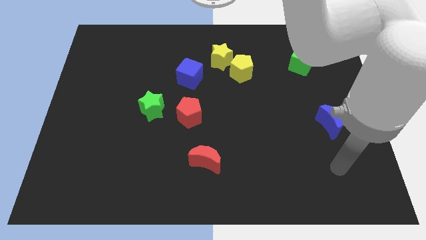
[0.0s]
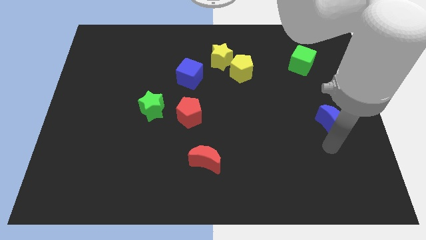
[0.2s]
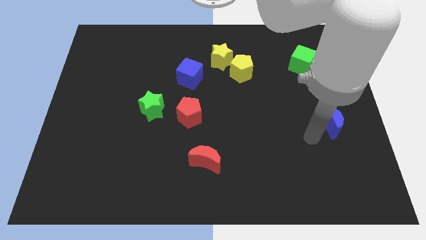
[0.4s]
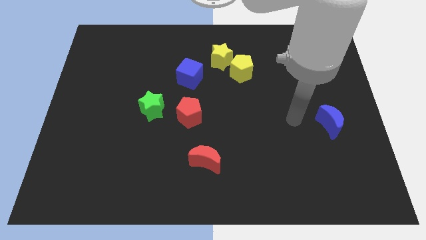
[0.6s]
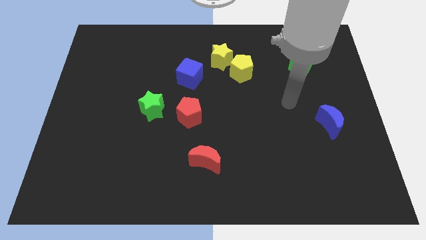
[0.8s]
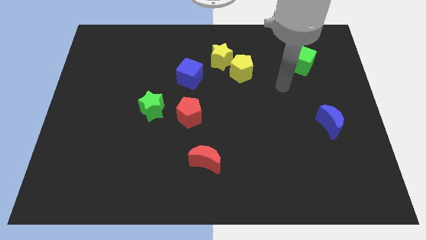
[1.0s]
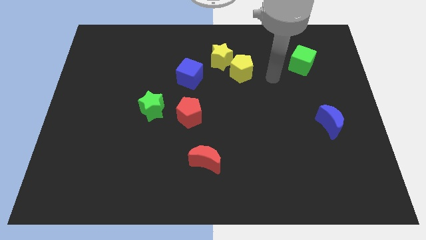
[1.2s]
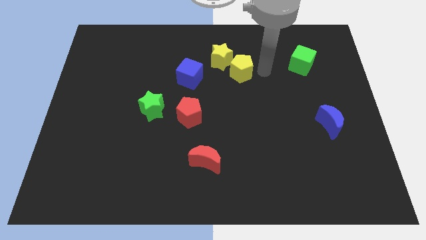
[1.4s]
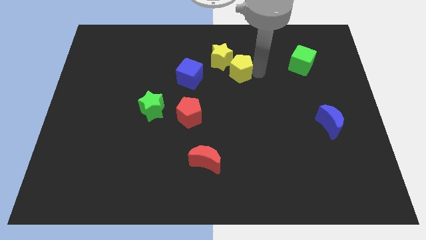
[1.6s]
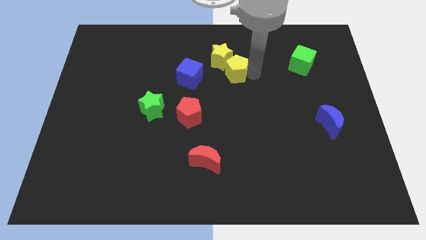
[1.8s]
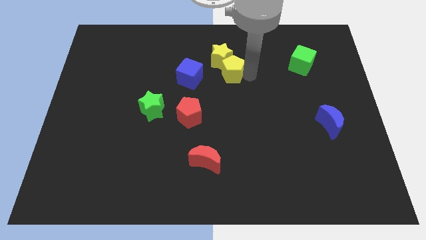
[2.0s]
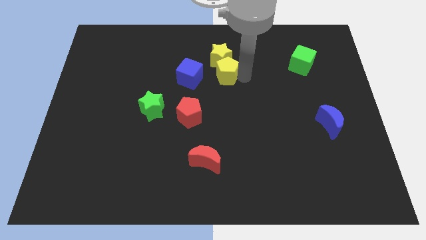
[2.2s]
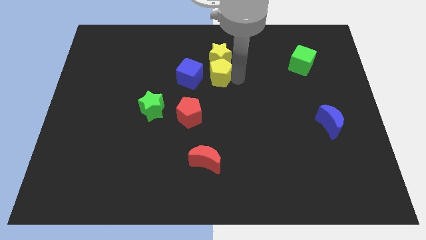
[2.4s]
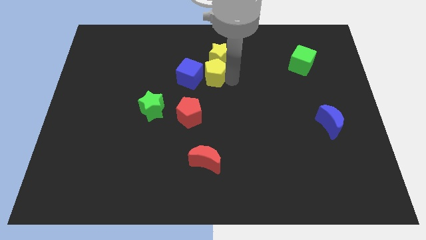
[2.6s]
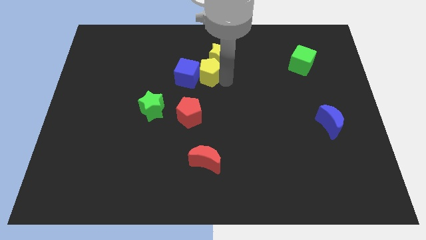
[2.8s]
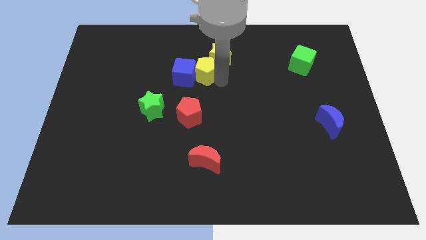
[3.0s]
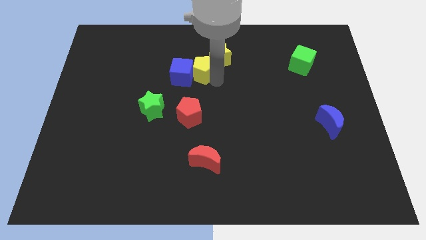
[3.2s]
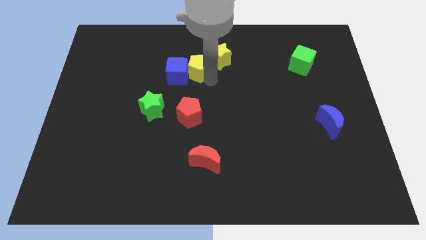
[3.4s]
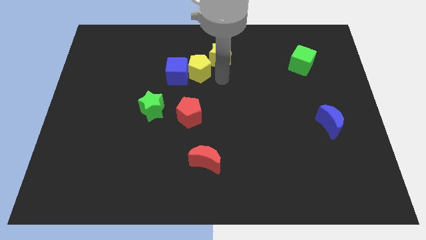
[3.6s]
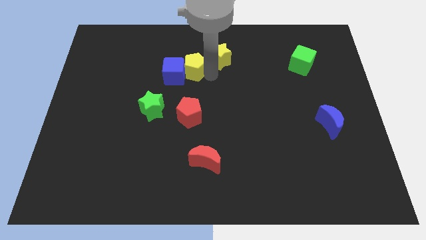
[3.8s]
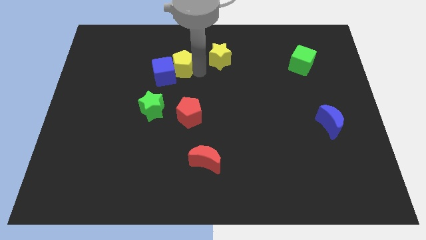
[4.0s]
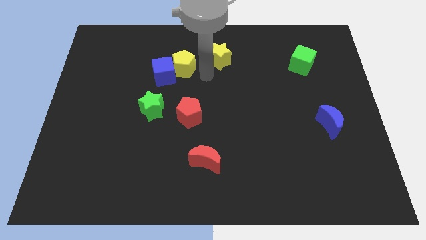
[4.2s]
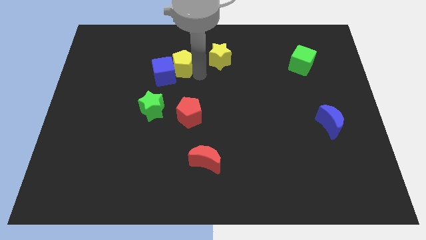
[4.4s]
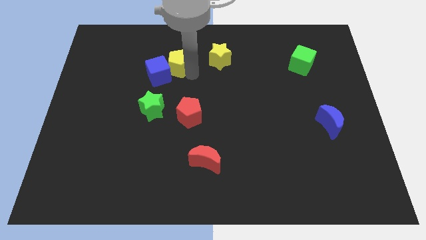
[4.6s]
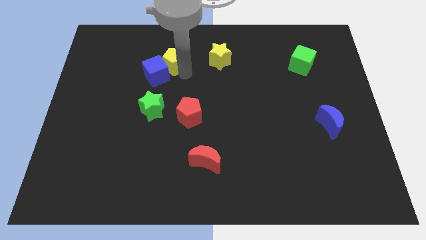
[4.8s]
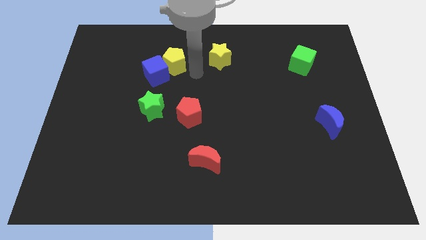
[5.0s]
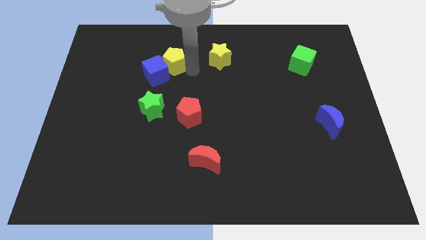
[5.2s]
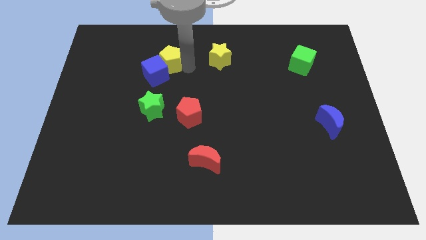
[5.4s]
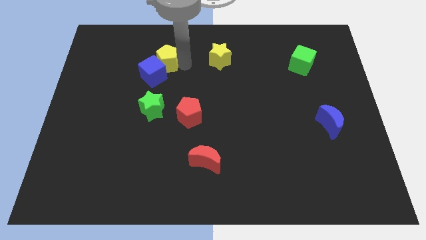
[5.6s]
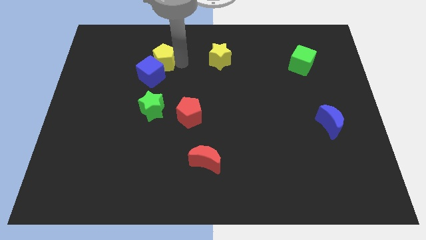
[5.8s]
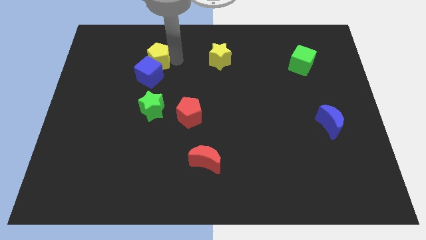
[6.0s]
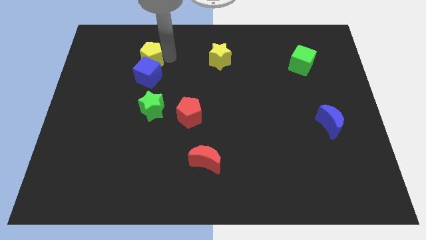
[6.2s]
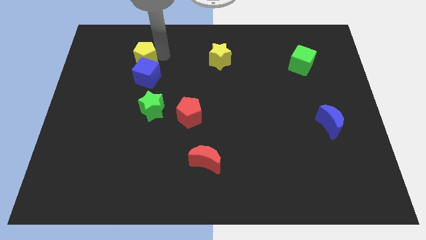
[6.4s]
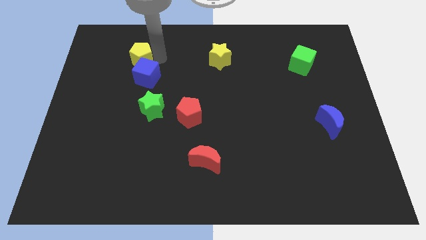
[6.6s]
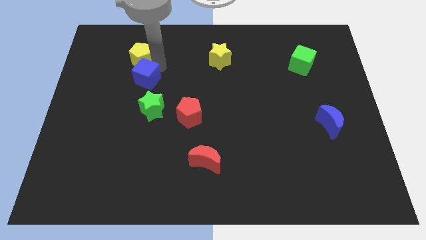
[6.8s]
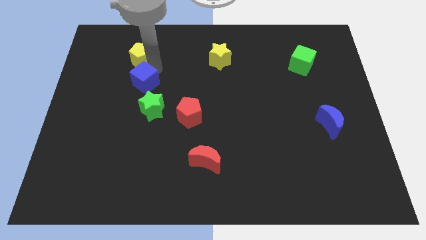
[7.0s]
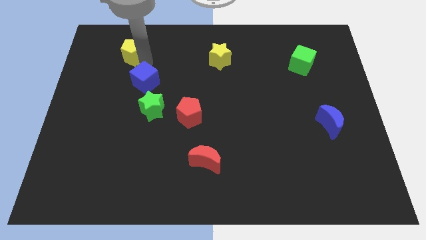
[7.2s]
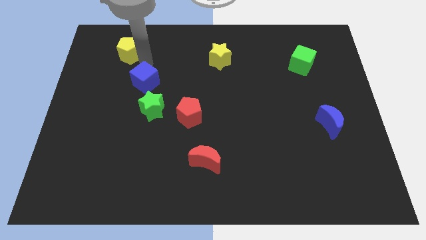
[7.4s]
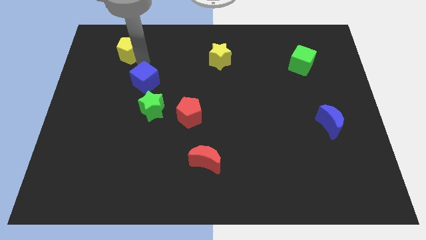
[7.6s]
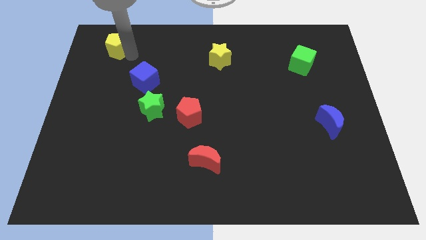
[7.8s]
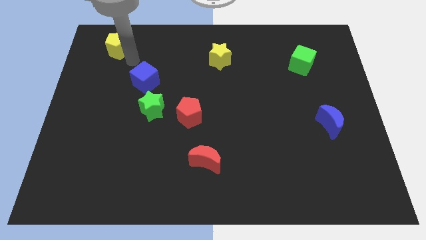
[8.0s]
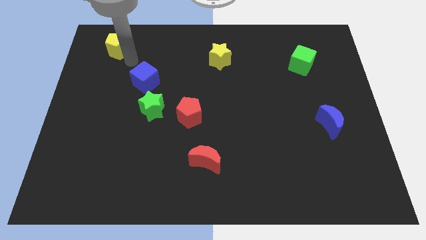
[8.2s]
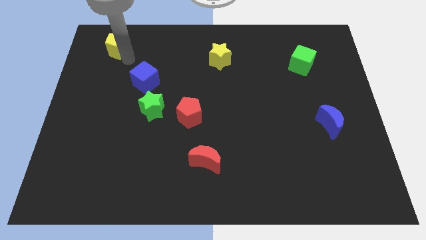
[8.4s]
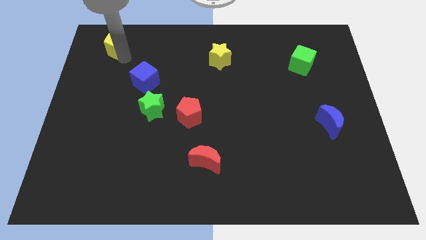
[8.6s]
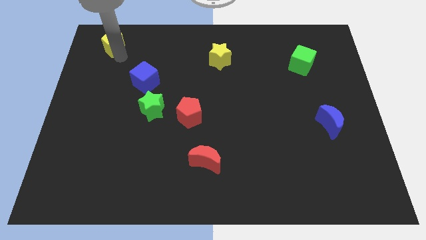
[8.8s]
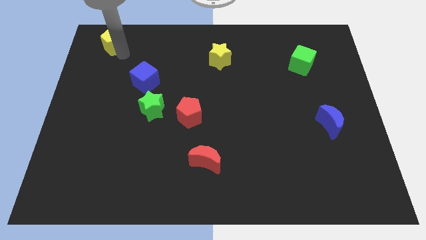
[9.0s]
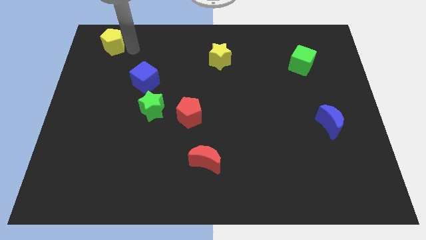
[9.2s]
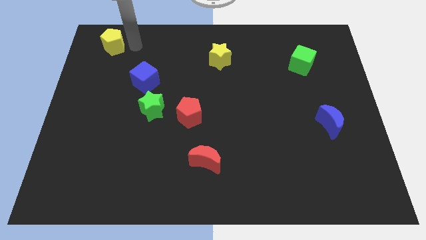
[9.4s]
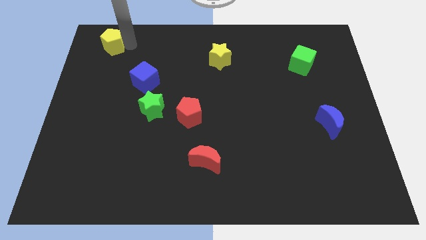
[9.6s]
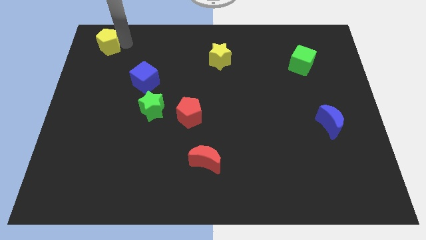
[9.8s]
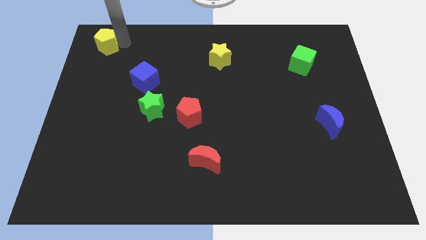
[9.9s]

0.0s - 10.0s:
push the yellow pentagon to the top left of the board
